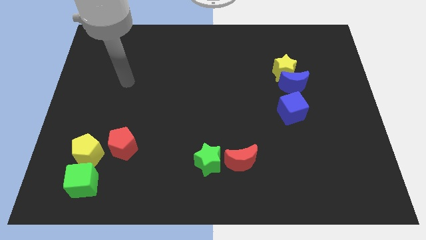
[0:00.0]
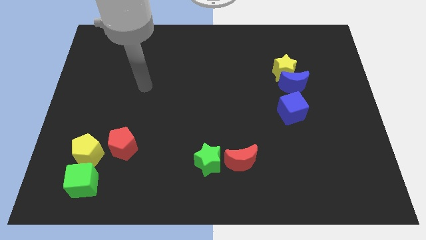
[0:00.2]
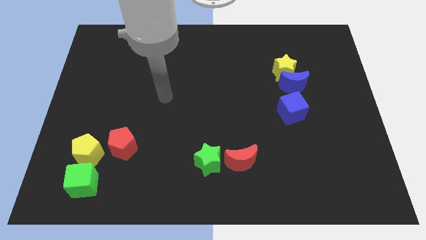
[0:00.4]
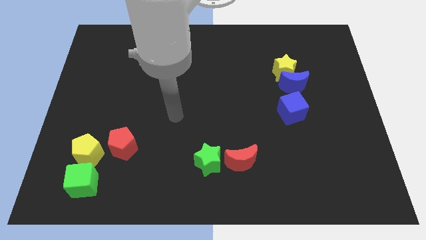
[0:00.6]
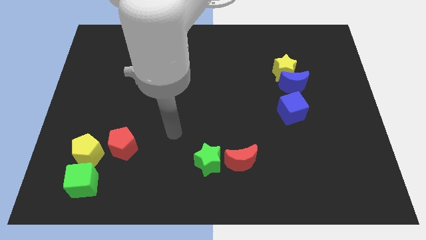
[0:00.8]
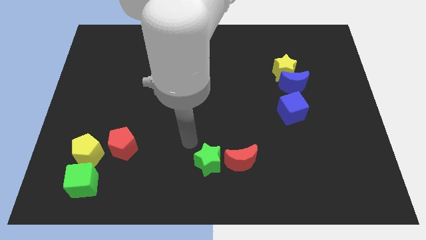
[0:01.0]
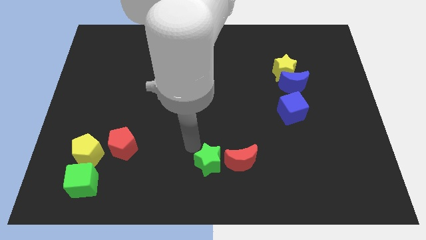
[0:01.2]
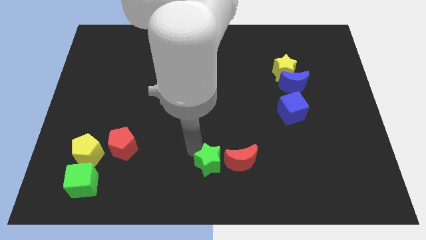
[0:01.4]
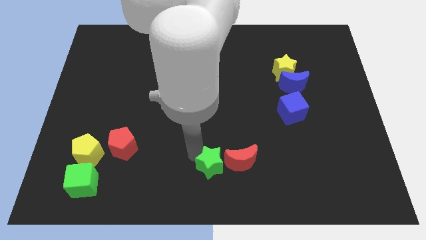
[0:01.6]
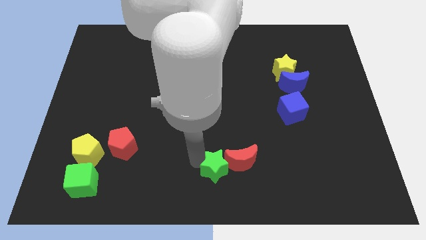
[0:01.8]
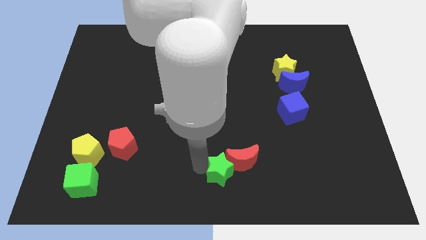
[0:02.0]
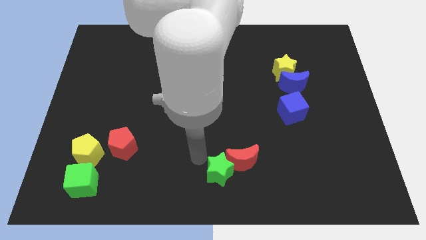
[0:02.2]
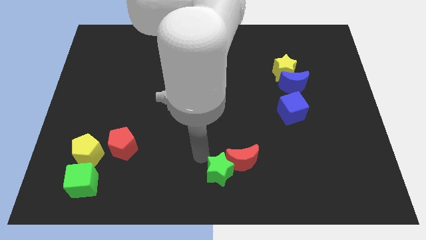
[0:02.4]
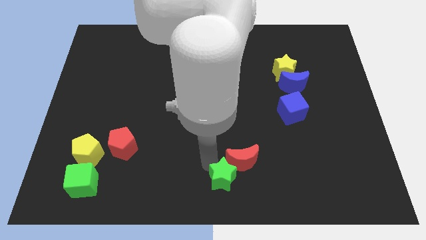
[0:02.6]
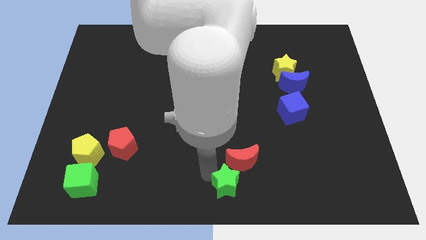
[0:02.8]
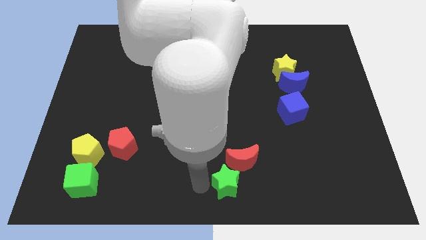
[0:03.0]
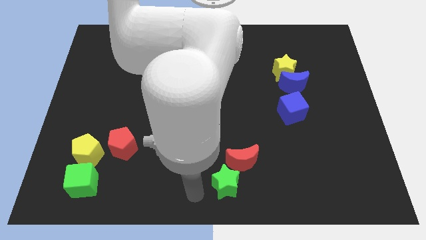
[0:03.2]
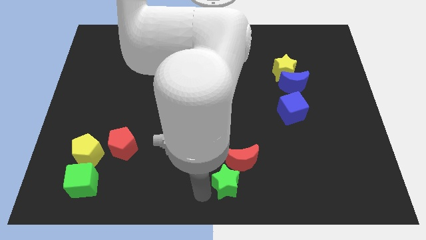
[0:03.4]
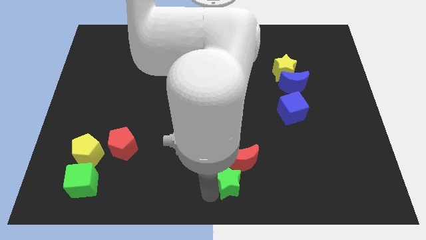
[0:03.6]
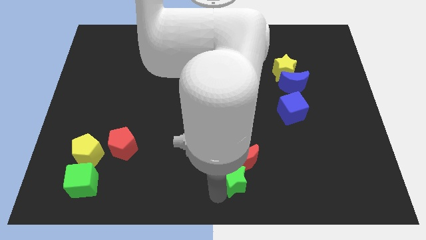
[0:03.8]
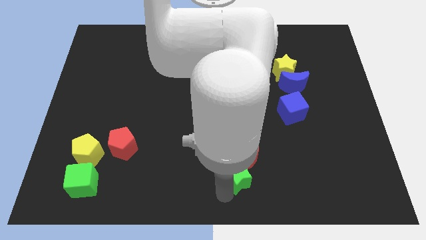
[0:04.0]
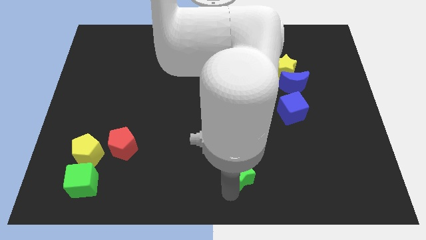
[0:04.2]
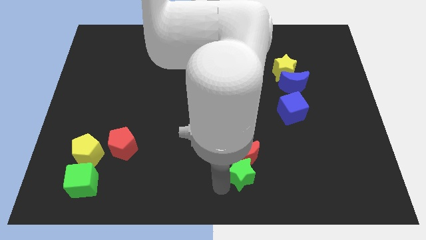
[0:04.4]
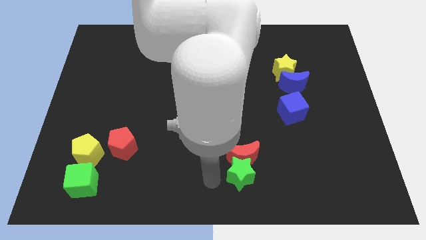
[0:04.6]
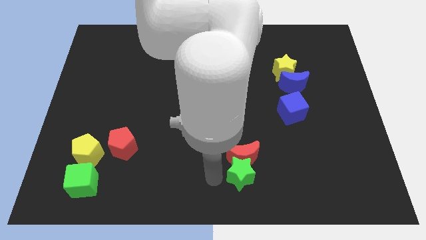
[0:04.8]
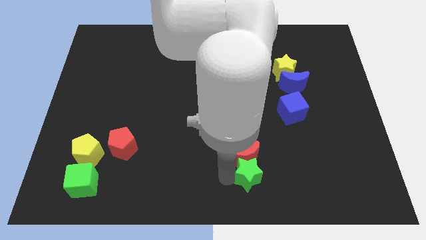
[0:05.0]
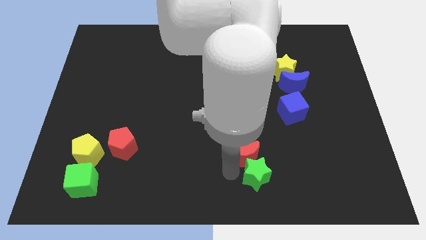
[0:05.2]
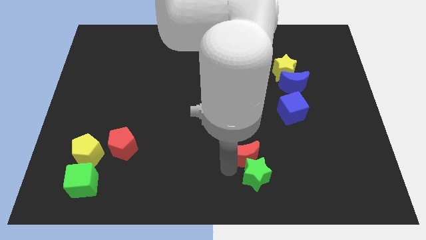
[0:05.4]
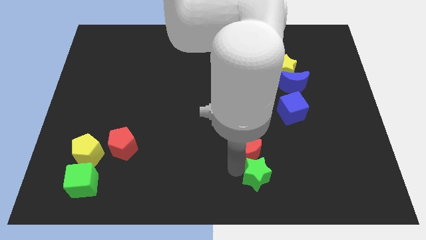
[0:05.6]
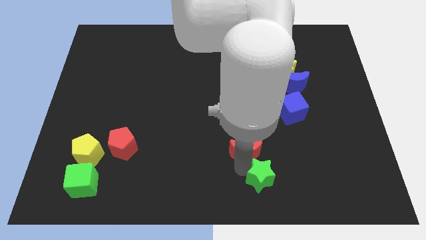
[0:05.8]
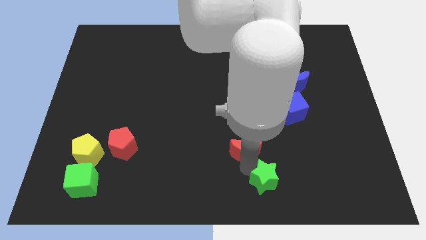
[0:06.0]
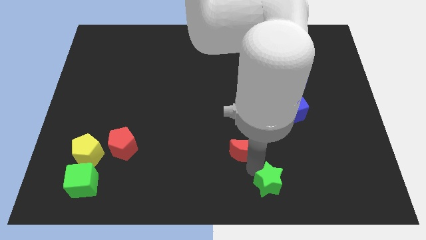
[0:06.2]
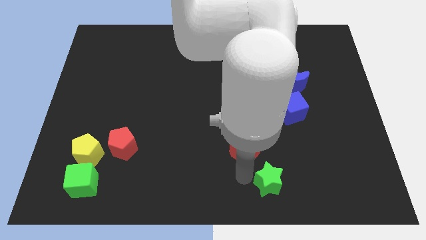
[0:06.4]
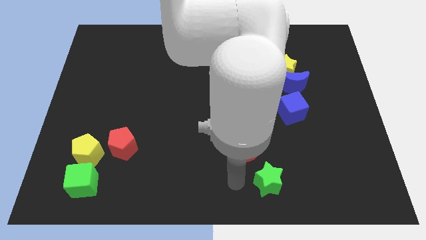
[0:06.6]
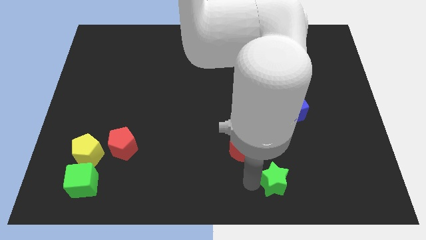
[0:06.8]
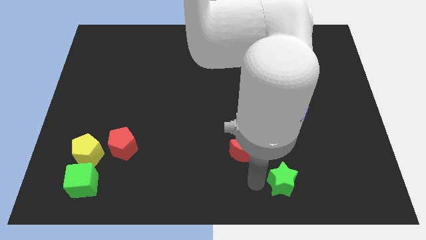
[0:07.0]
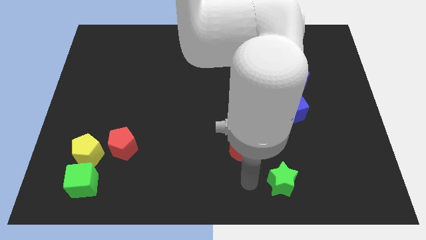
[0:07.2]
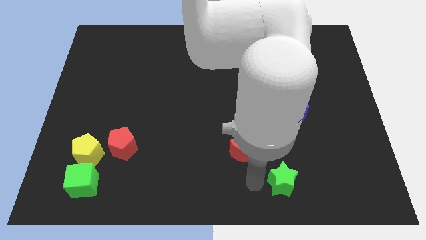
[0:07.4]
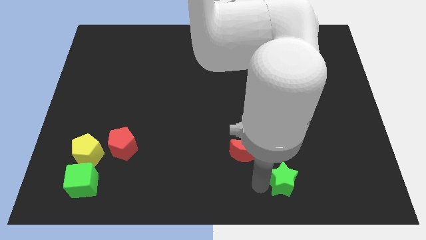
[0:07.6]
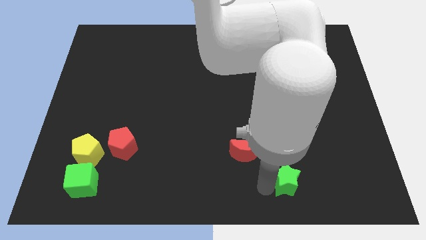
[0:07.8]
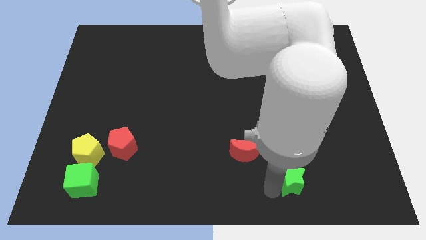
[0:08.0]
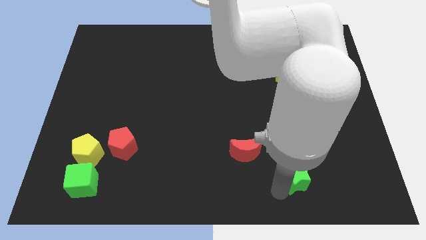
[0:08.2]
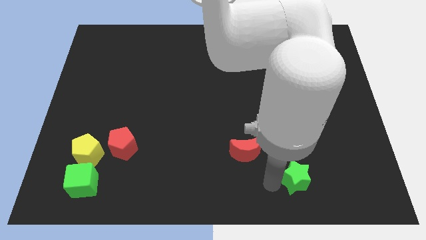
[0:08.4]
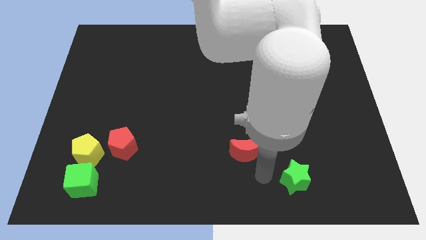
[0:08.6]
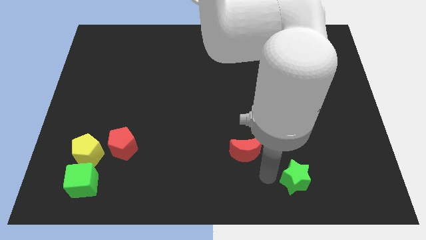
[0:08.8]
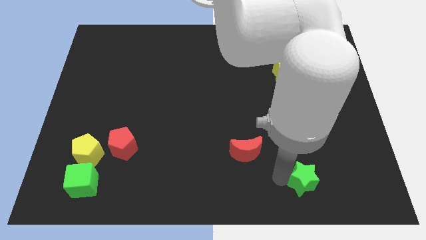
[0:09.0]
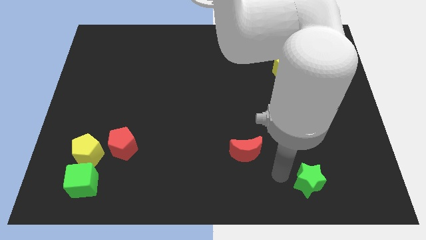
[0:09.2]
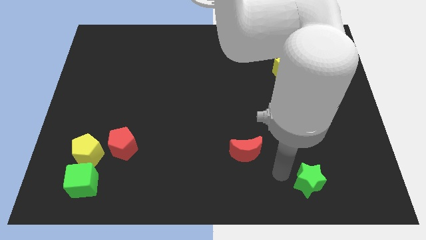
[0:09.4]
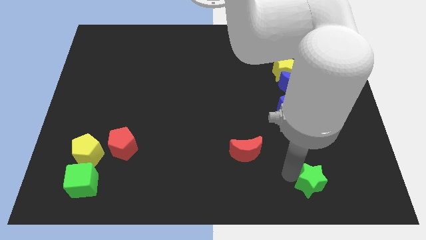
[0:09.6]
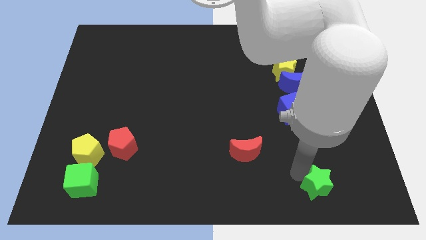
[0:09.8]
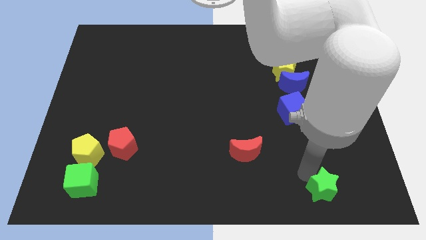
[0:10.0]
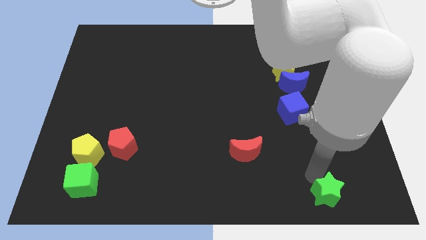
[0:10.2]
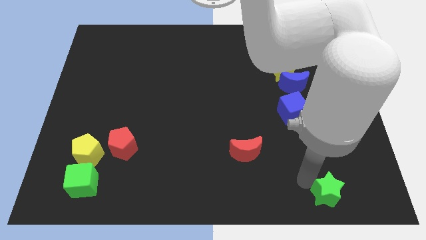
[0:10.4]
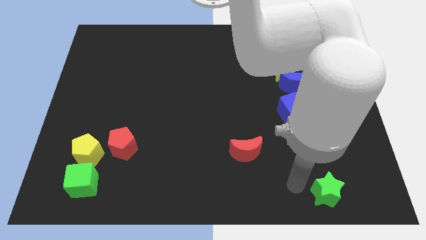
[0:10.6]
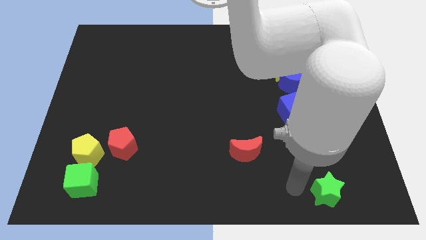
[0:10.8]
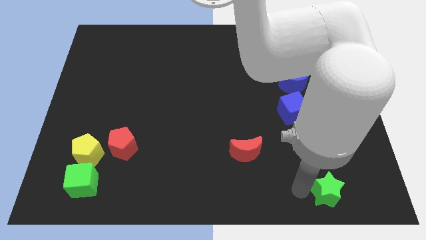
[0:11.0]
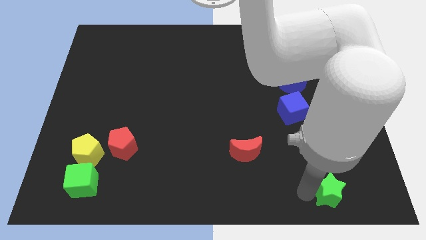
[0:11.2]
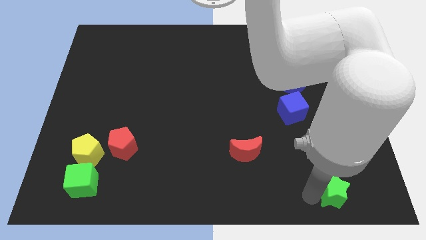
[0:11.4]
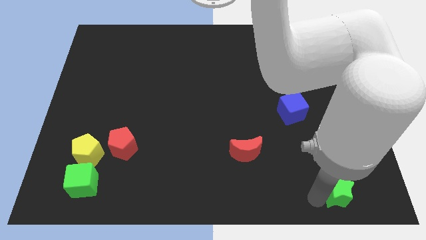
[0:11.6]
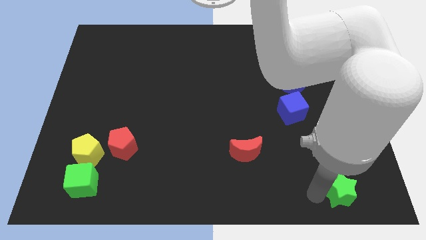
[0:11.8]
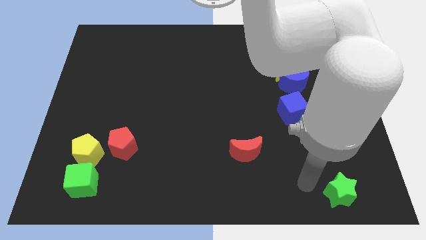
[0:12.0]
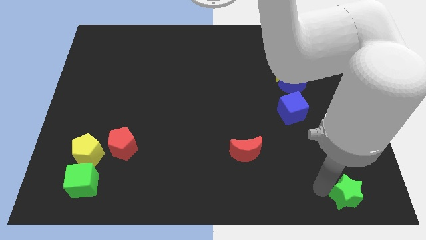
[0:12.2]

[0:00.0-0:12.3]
put the green star to the lower right corner

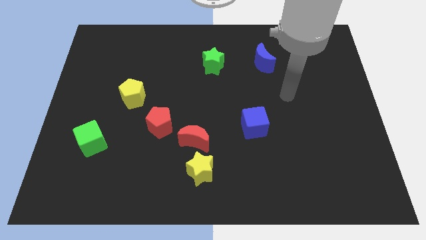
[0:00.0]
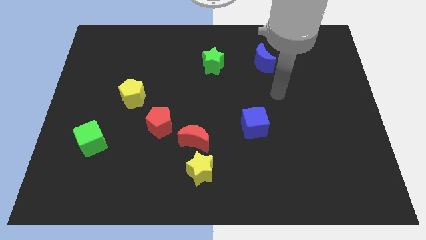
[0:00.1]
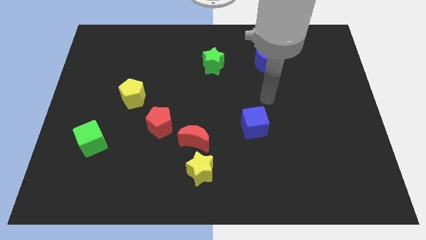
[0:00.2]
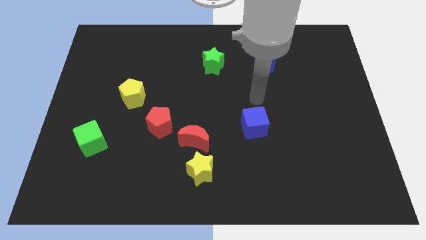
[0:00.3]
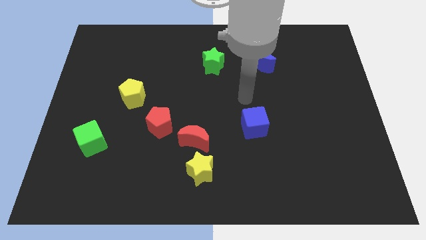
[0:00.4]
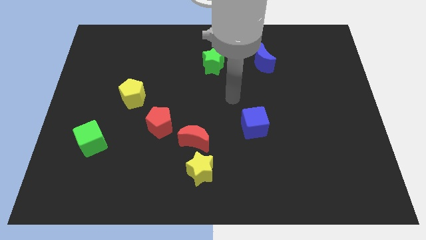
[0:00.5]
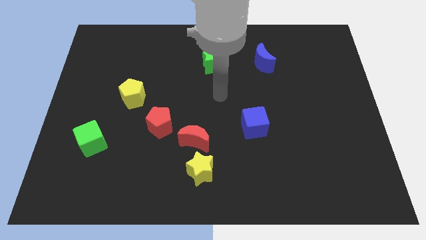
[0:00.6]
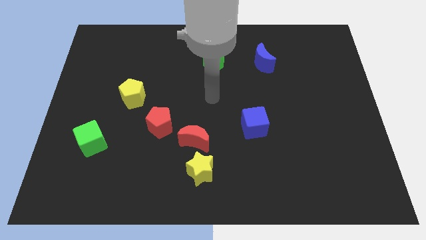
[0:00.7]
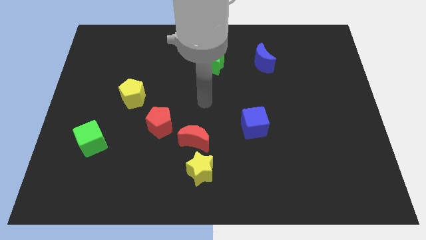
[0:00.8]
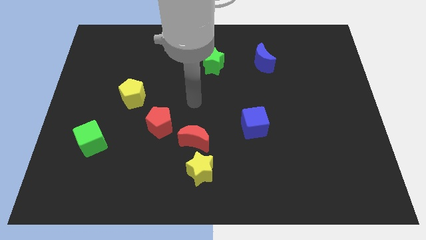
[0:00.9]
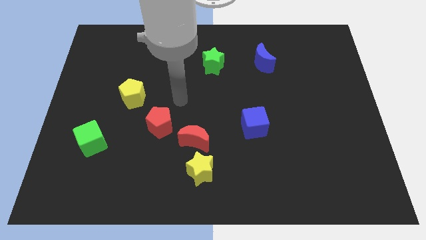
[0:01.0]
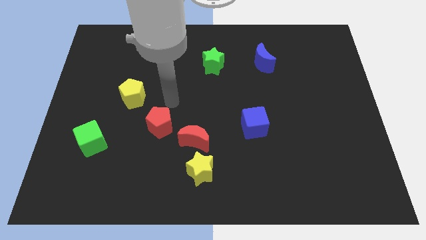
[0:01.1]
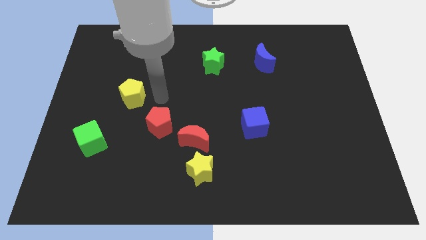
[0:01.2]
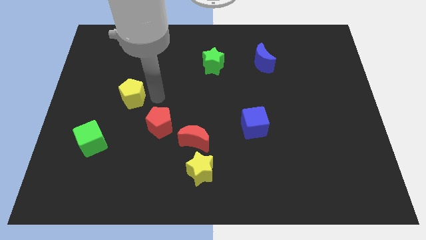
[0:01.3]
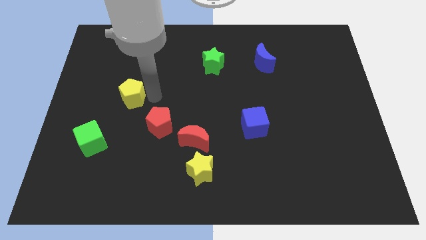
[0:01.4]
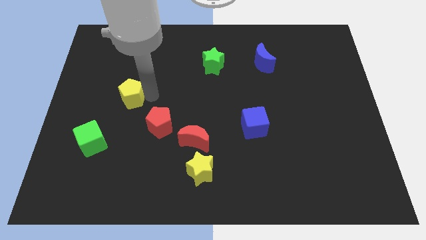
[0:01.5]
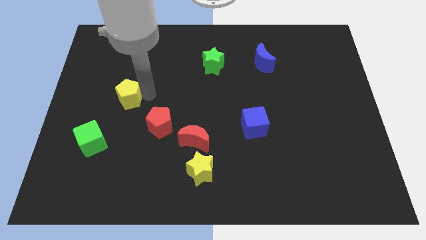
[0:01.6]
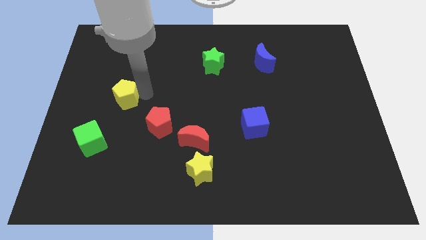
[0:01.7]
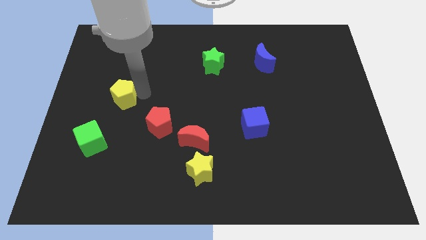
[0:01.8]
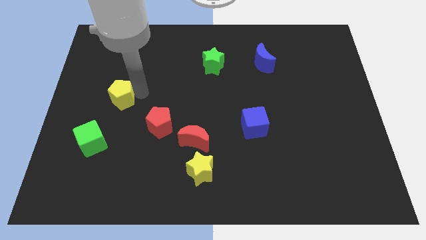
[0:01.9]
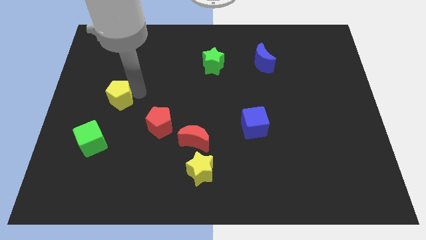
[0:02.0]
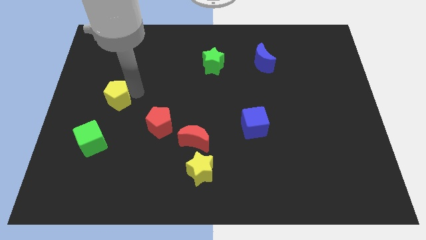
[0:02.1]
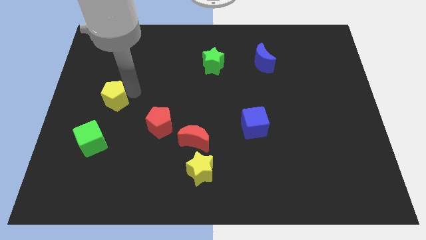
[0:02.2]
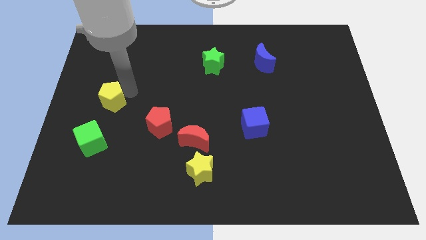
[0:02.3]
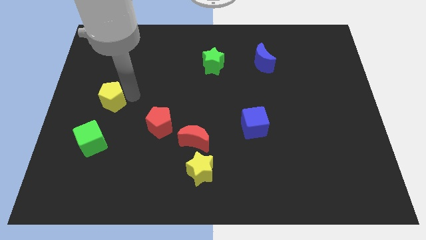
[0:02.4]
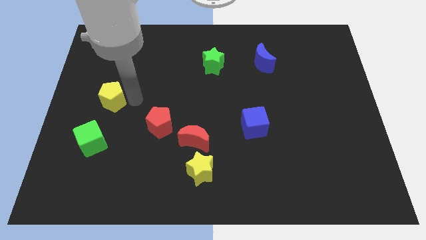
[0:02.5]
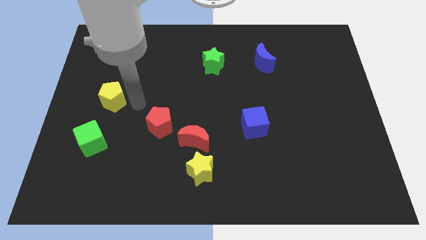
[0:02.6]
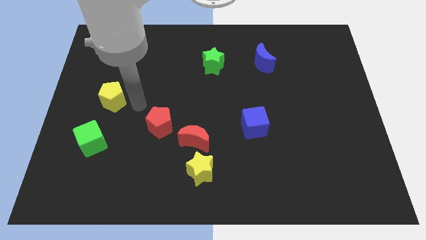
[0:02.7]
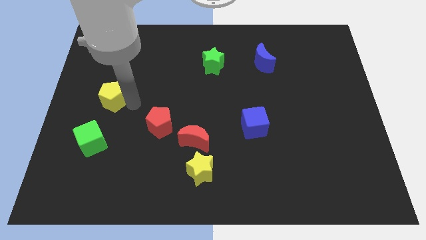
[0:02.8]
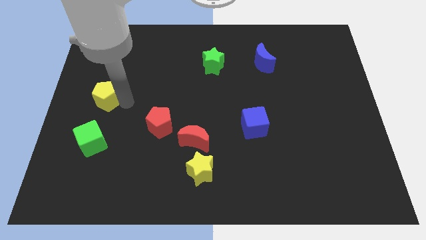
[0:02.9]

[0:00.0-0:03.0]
move the yellow pentagon to the left side of the board
